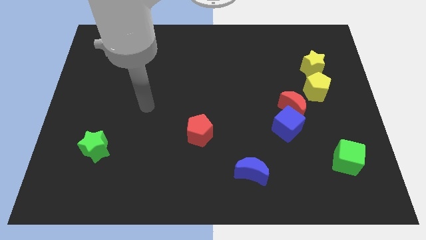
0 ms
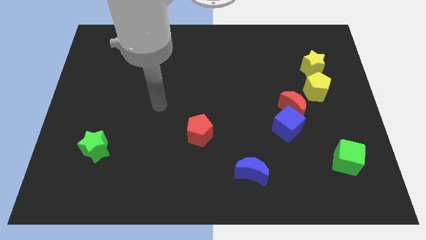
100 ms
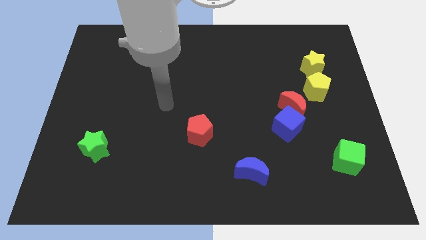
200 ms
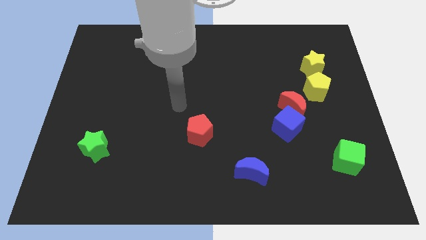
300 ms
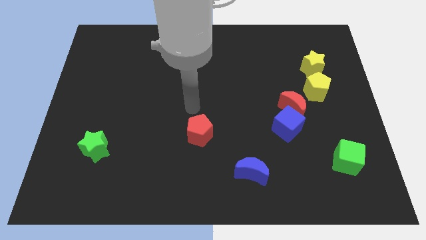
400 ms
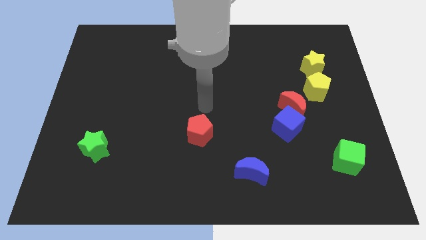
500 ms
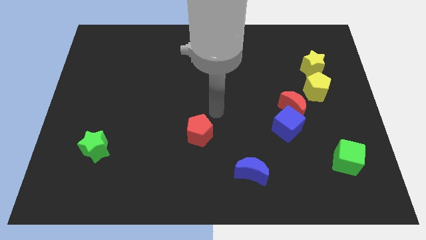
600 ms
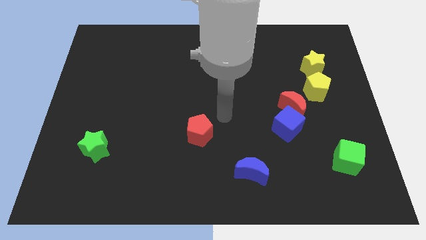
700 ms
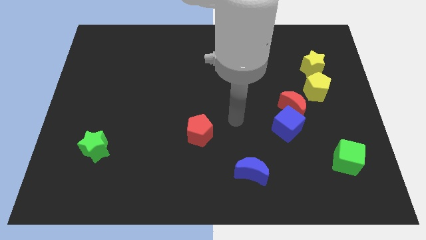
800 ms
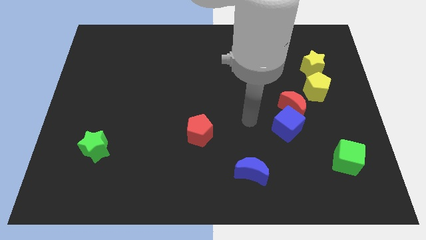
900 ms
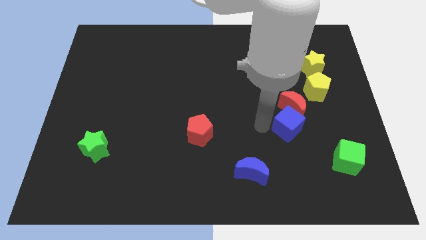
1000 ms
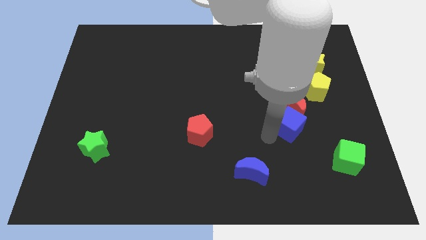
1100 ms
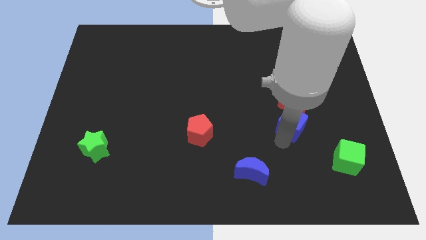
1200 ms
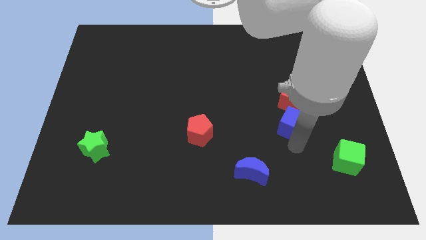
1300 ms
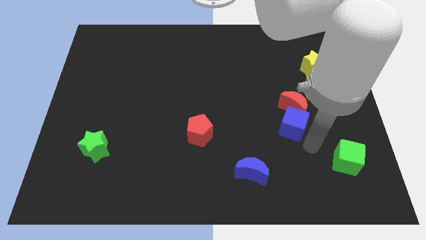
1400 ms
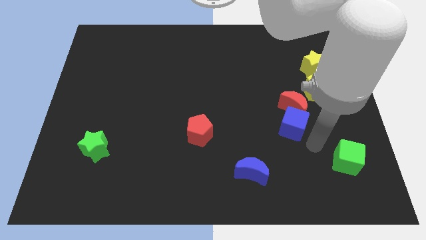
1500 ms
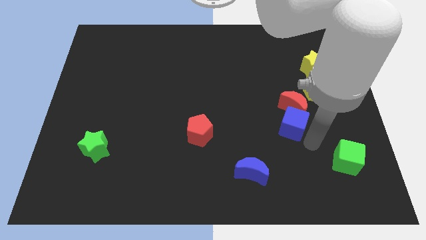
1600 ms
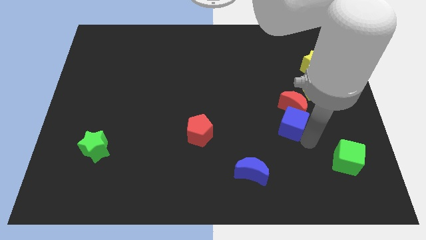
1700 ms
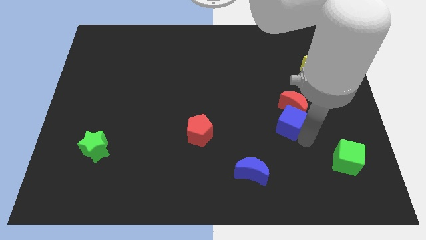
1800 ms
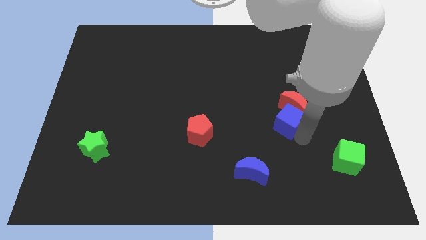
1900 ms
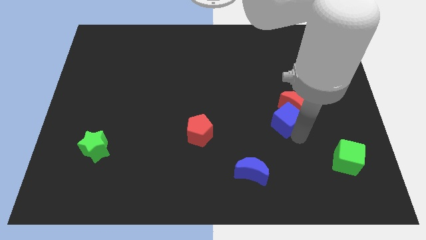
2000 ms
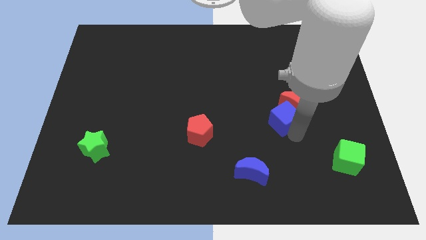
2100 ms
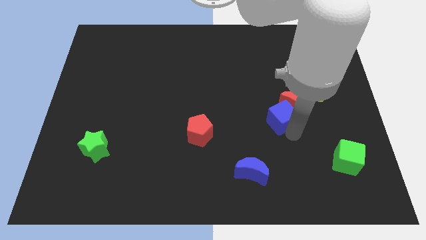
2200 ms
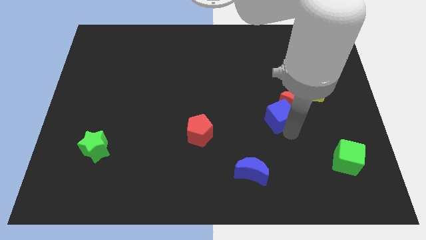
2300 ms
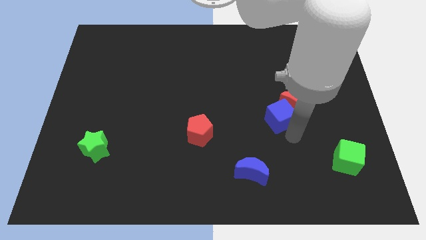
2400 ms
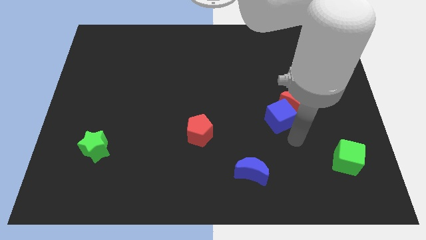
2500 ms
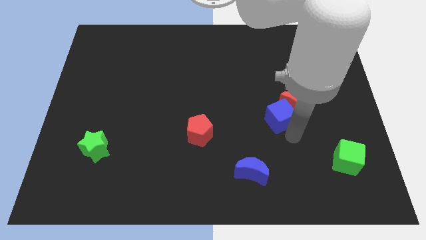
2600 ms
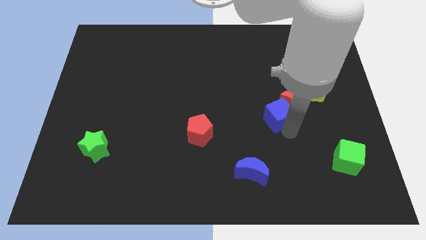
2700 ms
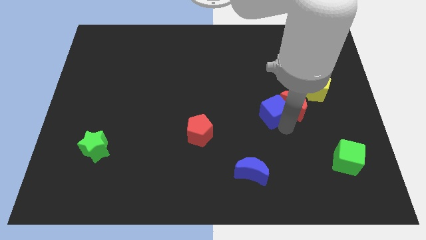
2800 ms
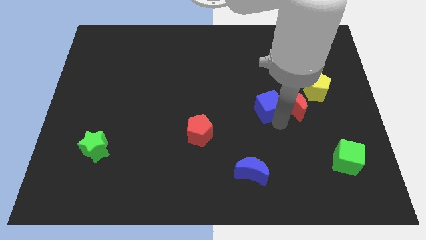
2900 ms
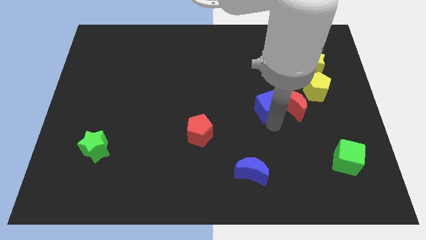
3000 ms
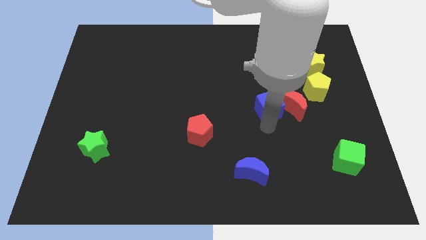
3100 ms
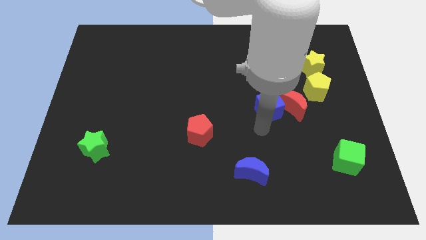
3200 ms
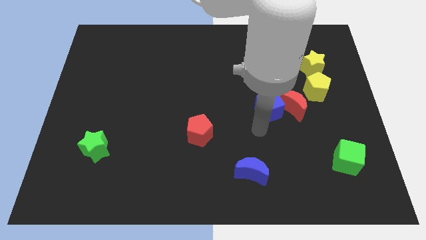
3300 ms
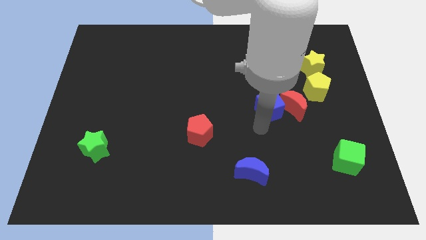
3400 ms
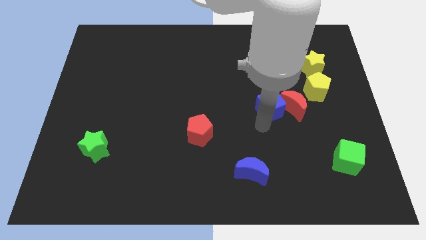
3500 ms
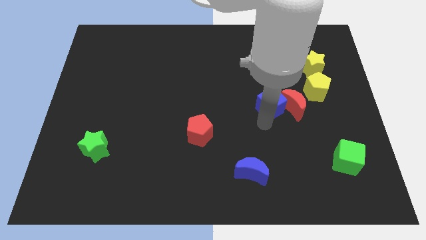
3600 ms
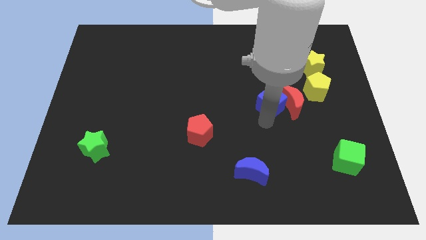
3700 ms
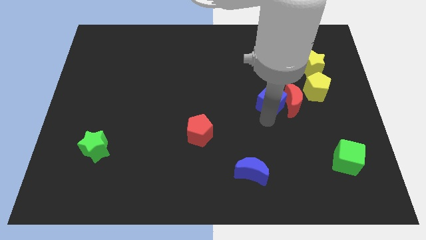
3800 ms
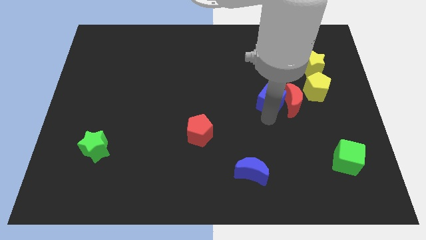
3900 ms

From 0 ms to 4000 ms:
move the blue cube up slightly

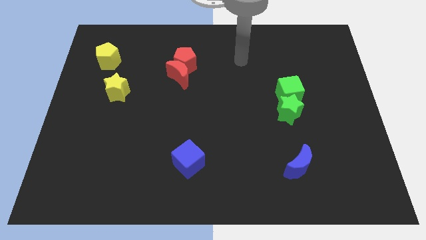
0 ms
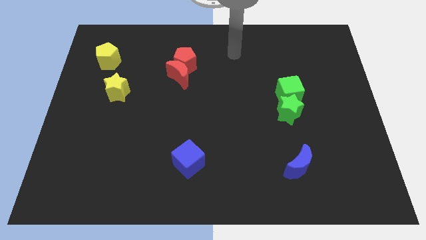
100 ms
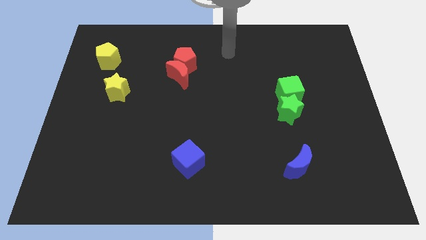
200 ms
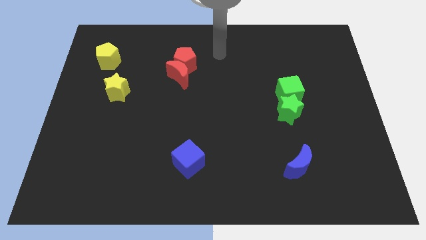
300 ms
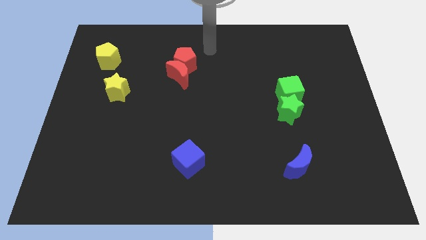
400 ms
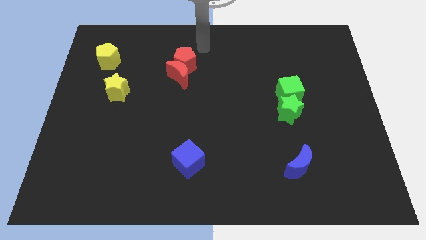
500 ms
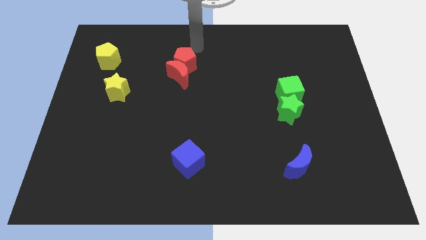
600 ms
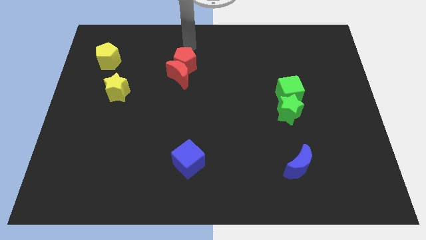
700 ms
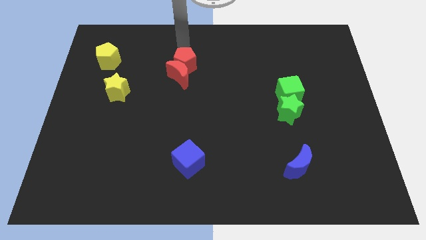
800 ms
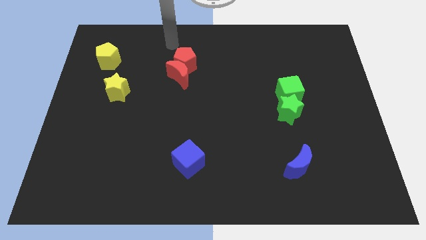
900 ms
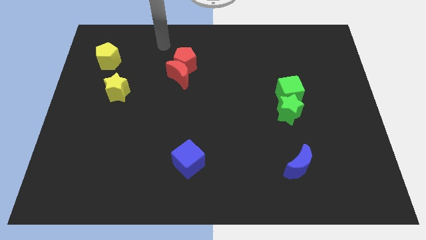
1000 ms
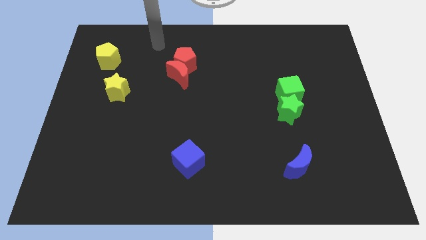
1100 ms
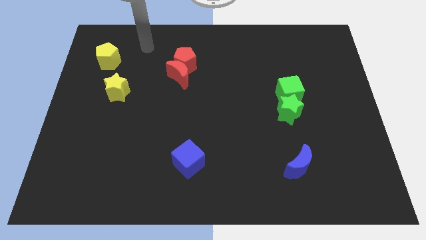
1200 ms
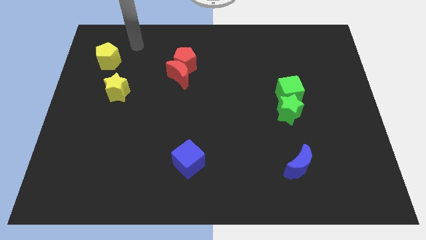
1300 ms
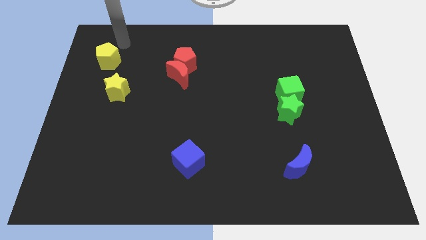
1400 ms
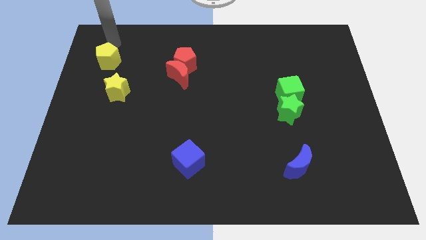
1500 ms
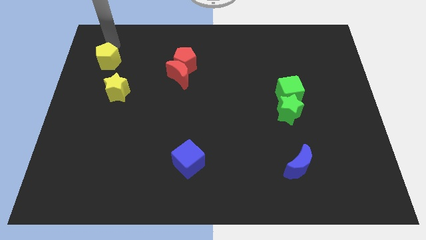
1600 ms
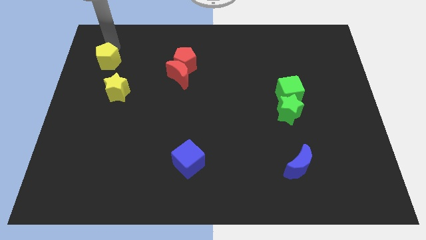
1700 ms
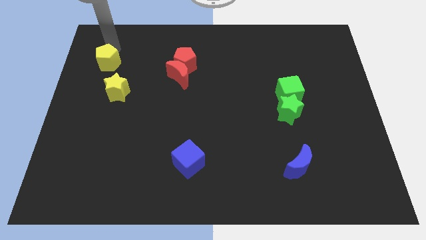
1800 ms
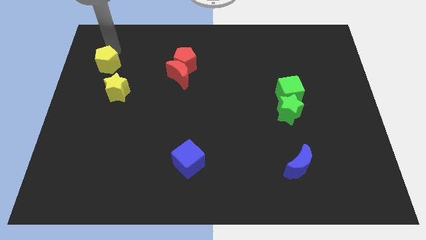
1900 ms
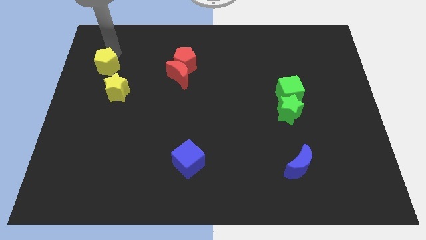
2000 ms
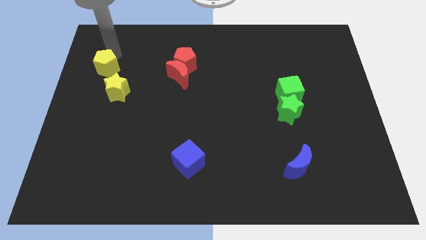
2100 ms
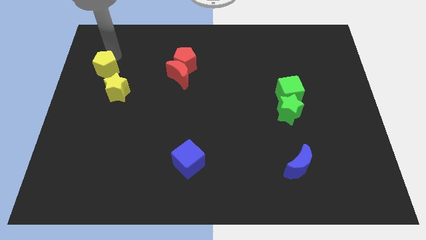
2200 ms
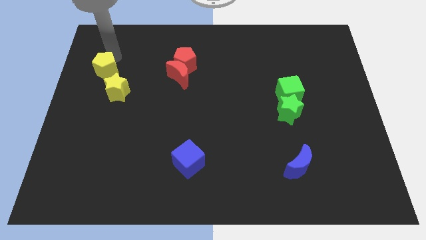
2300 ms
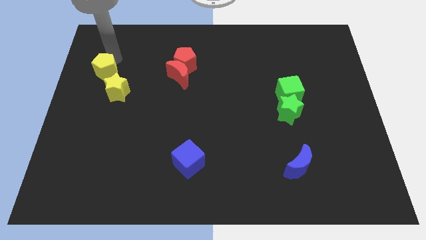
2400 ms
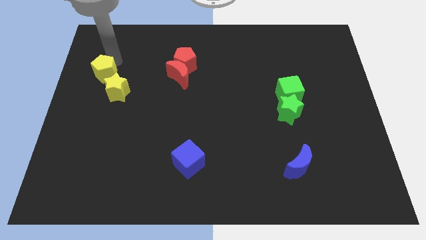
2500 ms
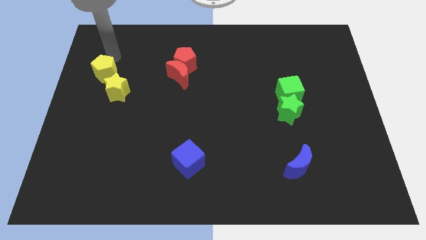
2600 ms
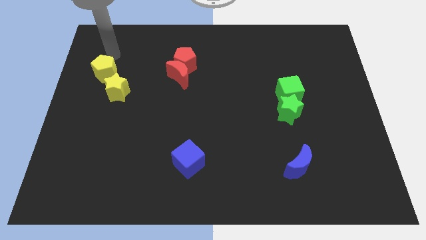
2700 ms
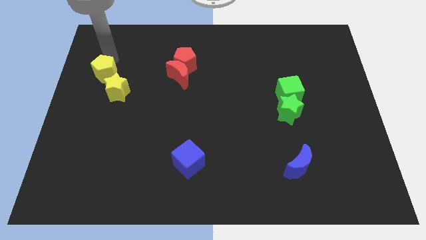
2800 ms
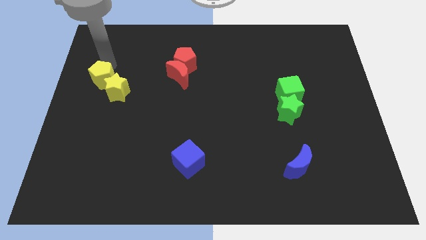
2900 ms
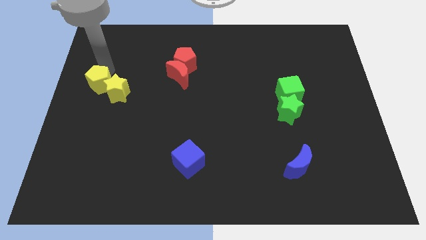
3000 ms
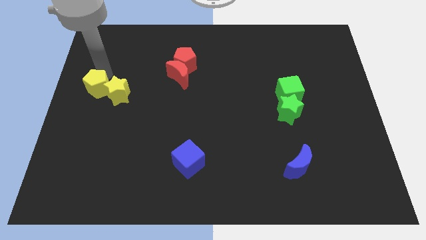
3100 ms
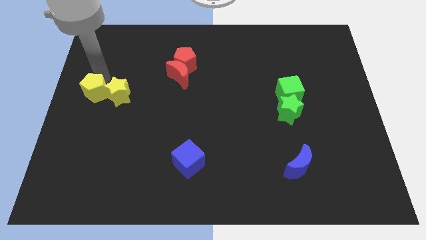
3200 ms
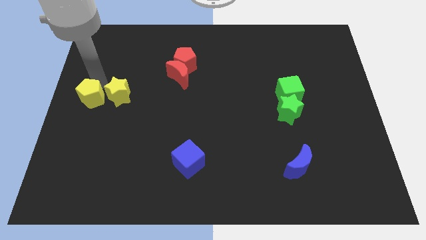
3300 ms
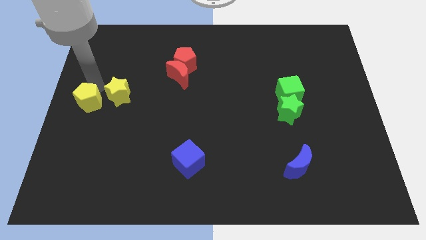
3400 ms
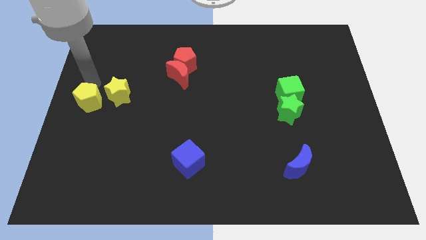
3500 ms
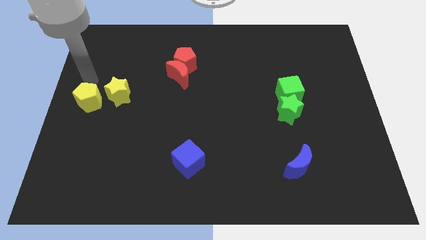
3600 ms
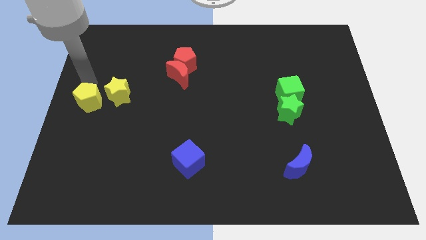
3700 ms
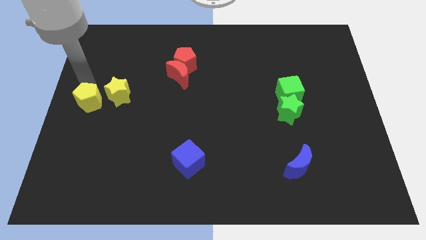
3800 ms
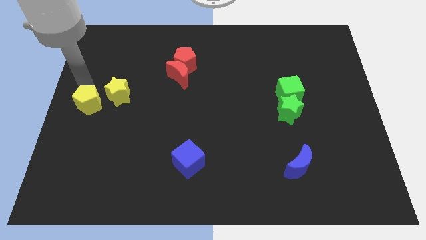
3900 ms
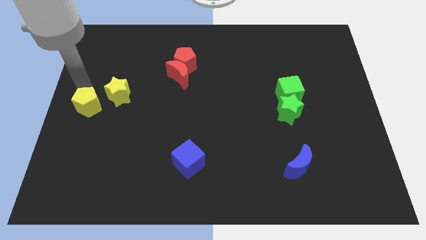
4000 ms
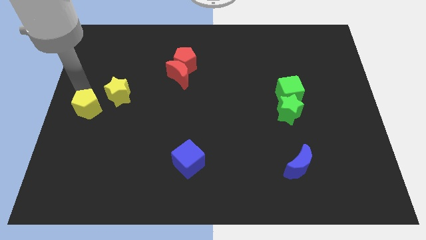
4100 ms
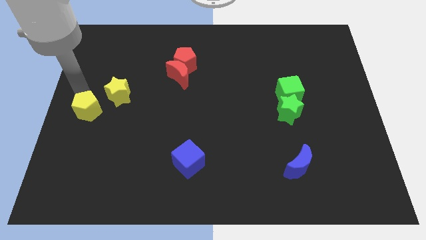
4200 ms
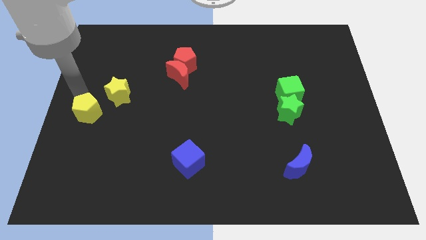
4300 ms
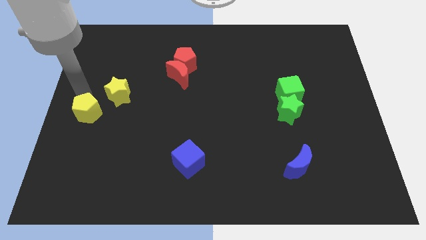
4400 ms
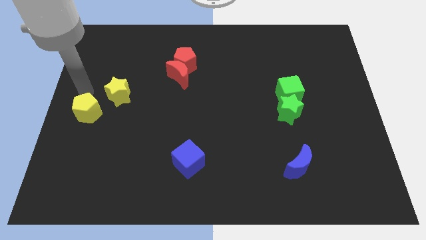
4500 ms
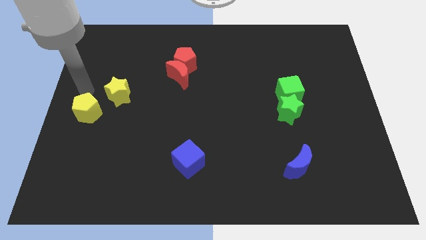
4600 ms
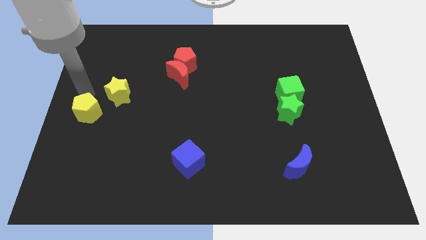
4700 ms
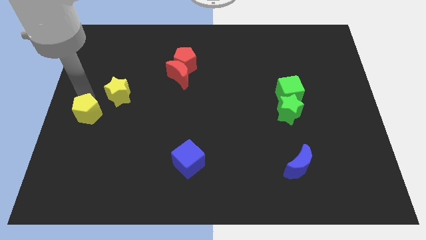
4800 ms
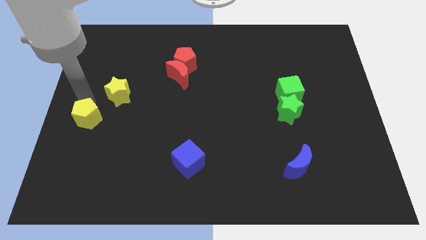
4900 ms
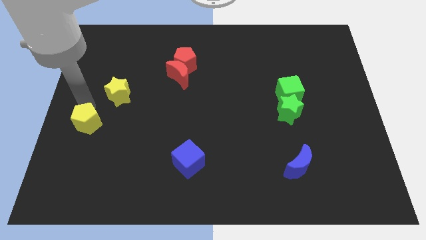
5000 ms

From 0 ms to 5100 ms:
slide the yellow pentagon down
